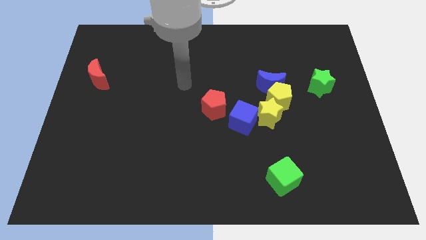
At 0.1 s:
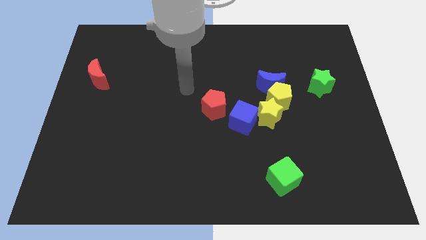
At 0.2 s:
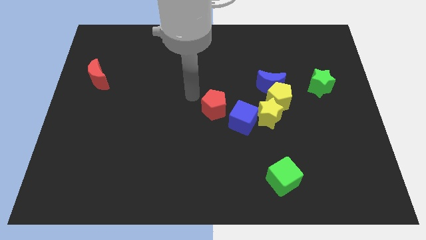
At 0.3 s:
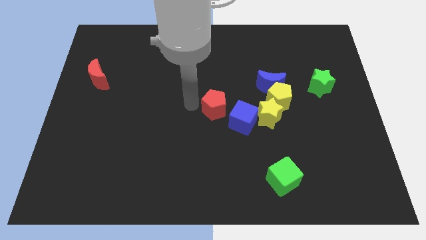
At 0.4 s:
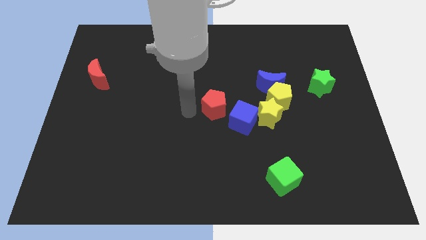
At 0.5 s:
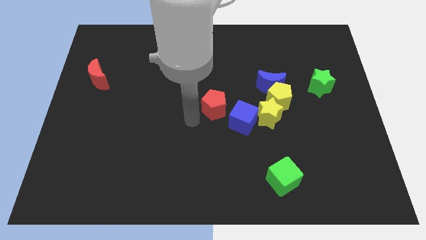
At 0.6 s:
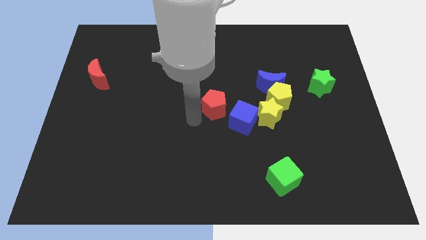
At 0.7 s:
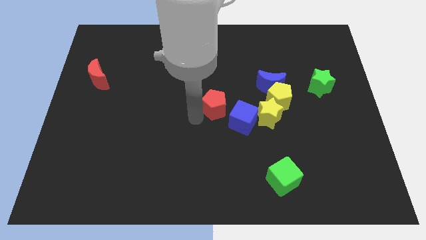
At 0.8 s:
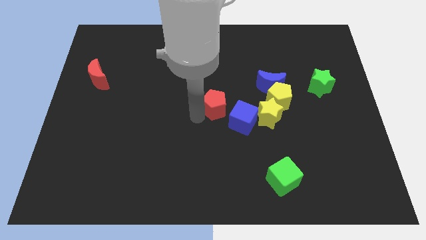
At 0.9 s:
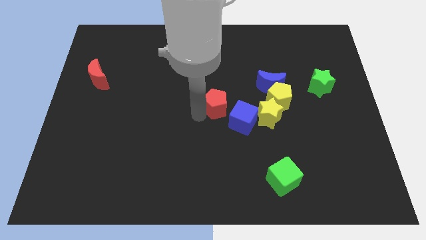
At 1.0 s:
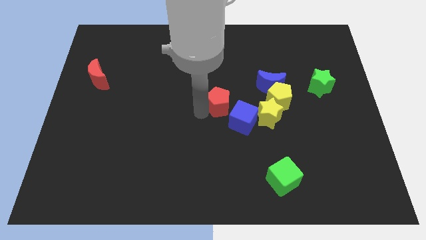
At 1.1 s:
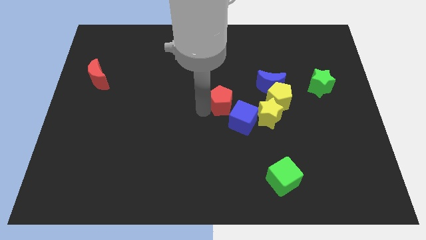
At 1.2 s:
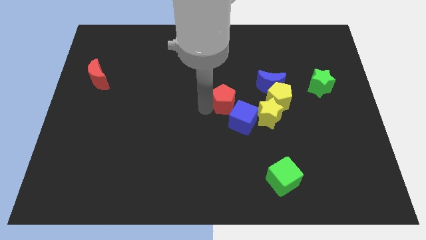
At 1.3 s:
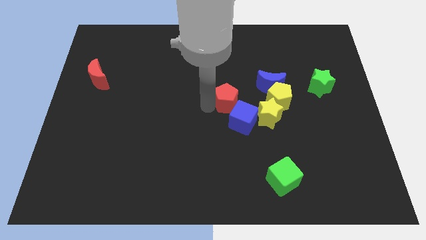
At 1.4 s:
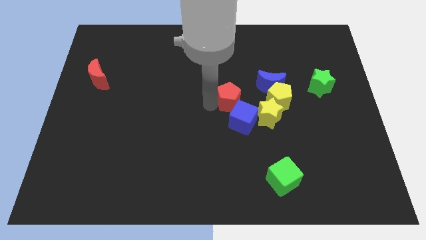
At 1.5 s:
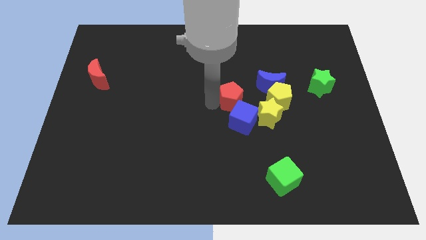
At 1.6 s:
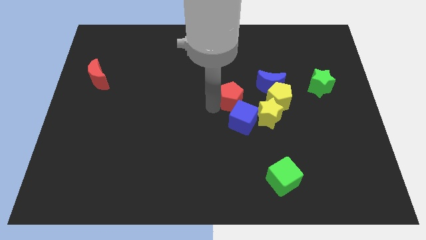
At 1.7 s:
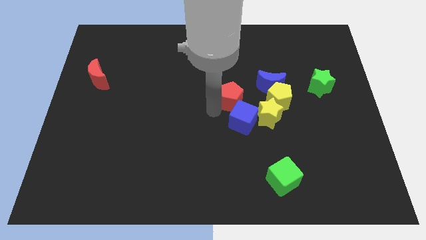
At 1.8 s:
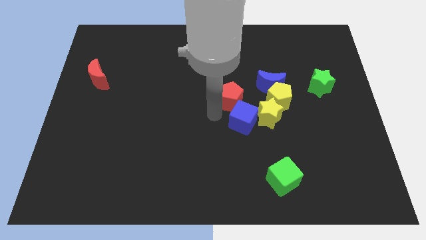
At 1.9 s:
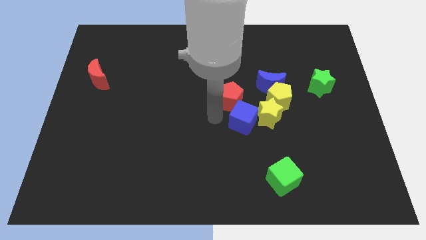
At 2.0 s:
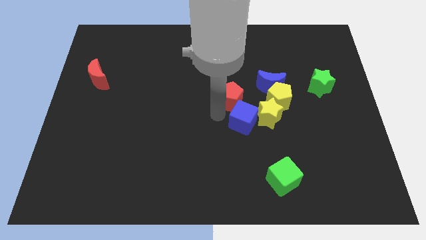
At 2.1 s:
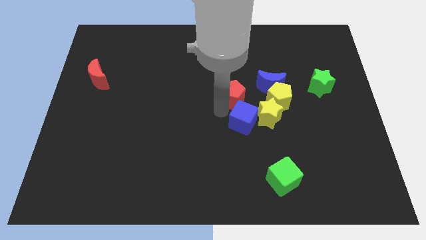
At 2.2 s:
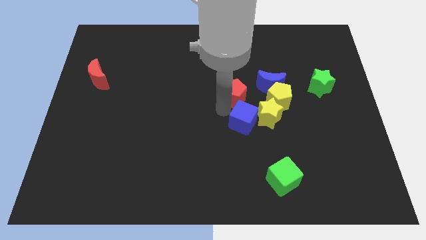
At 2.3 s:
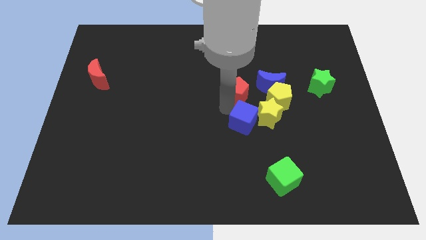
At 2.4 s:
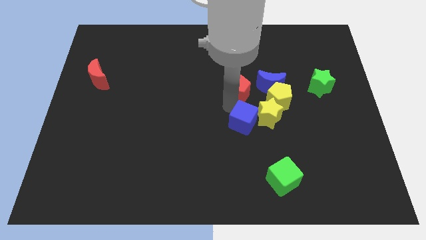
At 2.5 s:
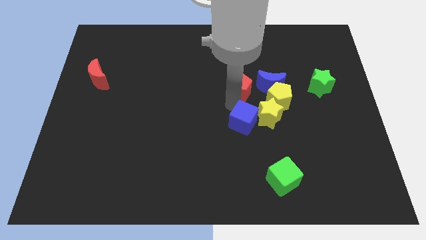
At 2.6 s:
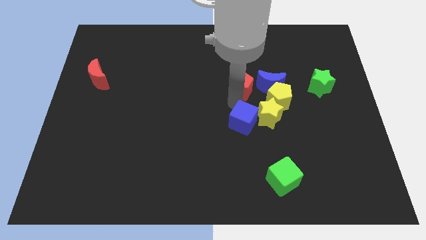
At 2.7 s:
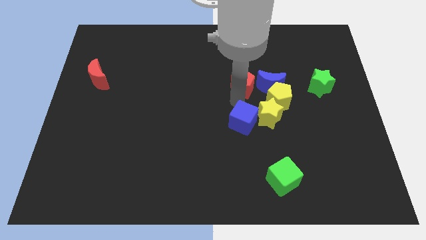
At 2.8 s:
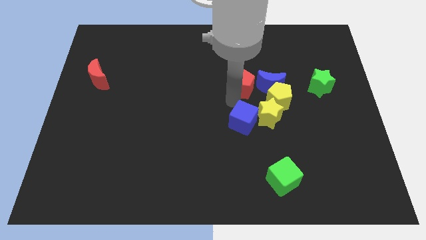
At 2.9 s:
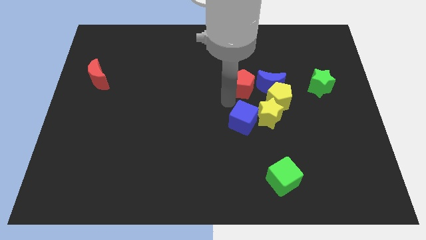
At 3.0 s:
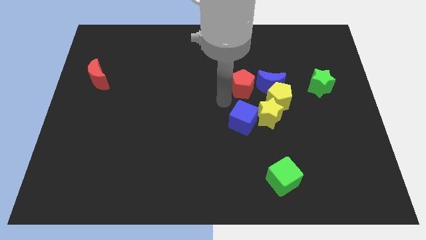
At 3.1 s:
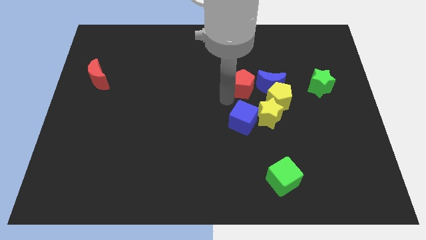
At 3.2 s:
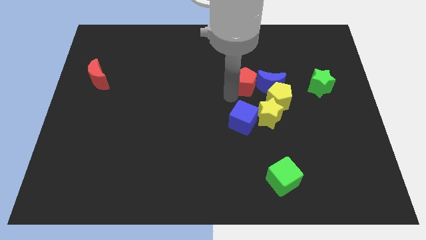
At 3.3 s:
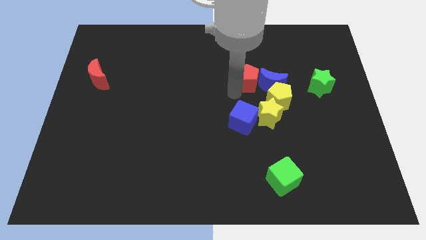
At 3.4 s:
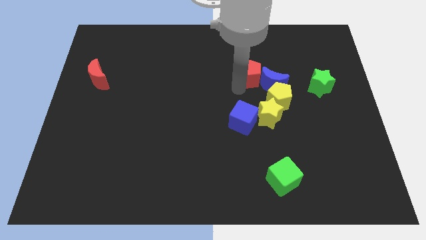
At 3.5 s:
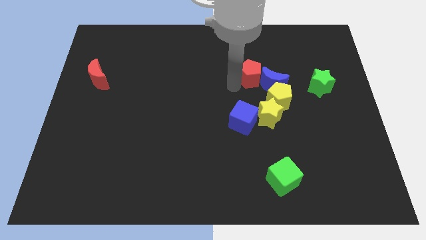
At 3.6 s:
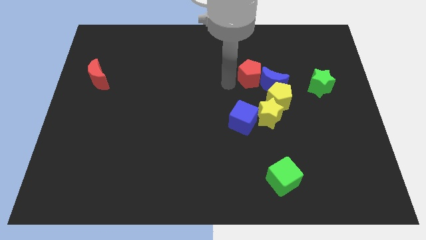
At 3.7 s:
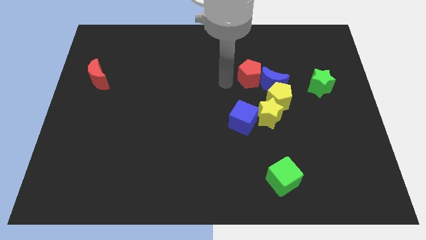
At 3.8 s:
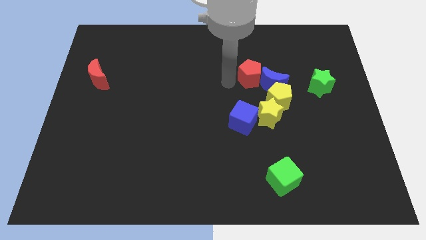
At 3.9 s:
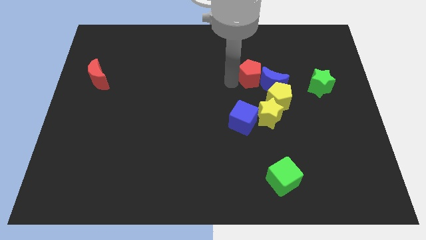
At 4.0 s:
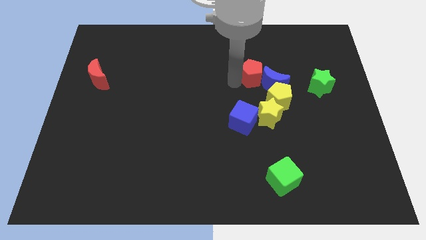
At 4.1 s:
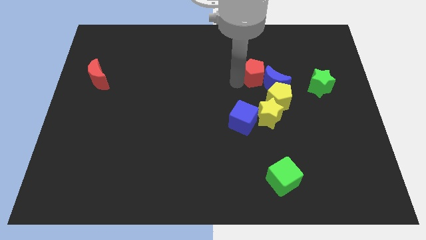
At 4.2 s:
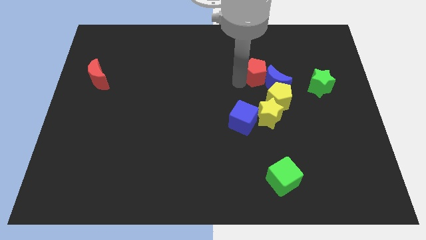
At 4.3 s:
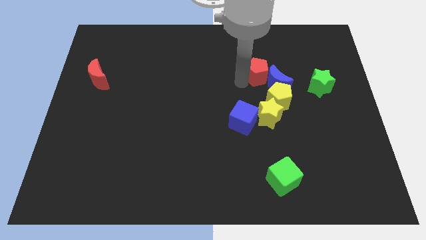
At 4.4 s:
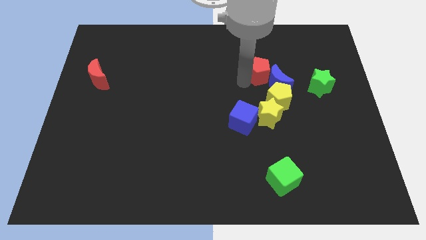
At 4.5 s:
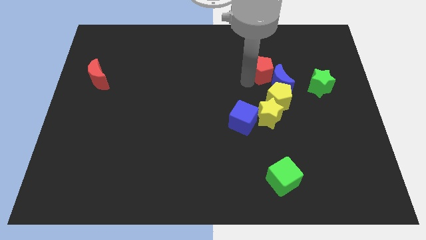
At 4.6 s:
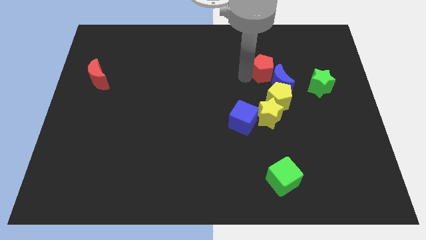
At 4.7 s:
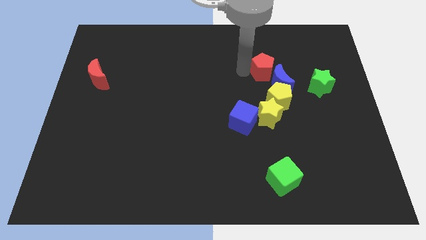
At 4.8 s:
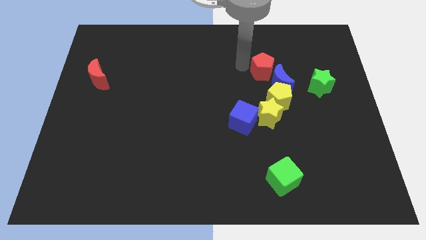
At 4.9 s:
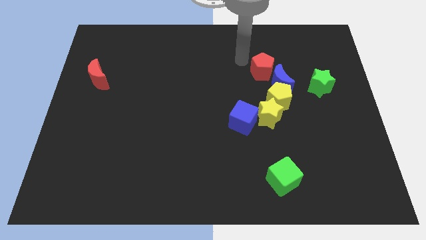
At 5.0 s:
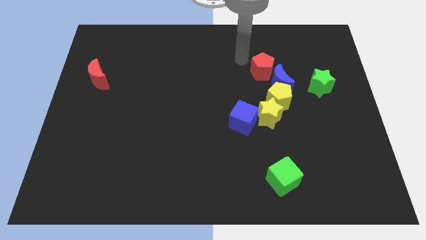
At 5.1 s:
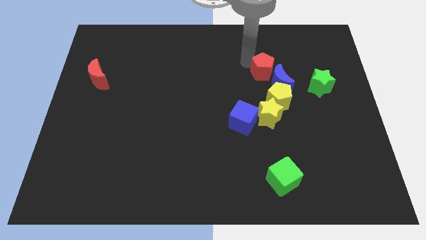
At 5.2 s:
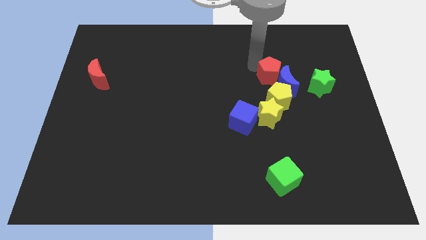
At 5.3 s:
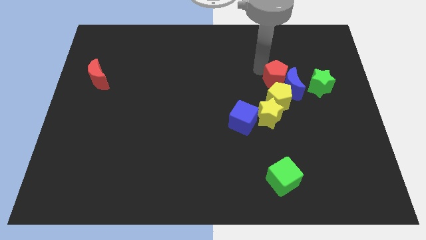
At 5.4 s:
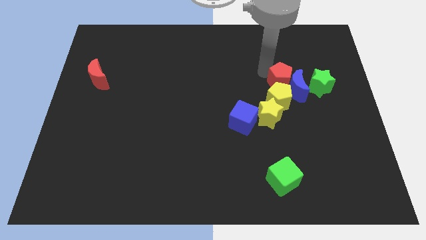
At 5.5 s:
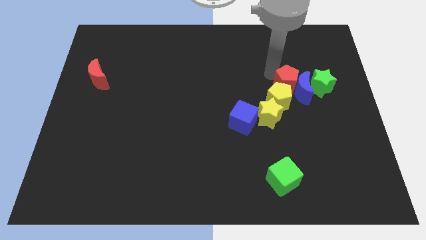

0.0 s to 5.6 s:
slide the red pentagon diagonally up and to the right of the yellow star

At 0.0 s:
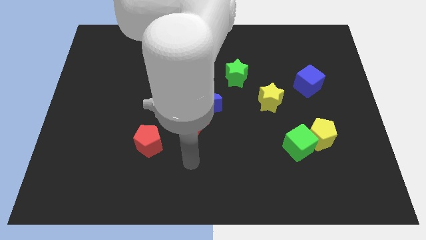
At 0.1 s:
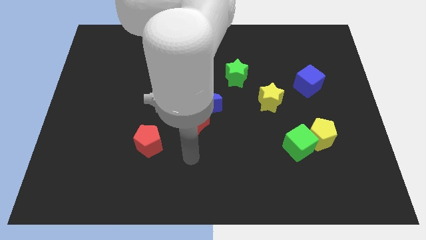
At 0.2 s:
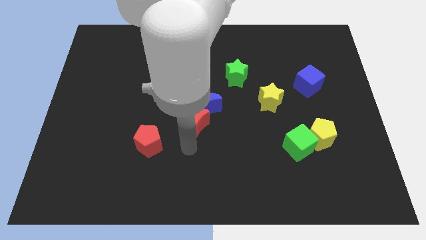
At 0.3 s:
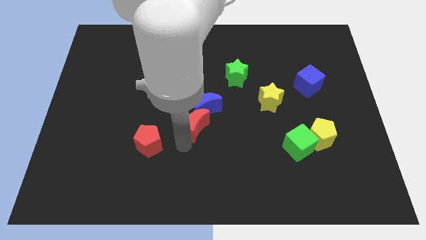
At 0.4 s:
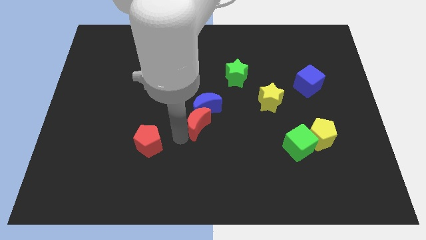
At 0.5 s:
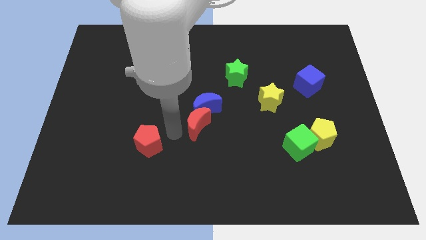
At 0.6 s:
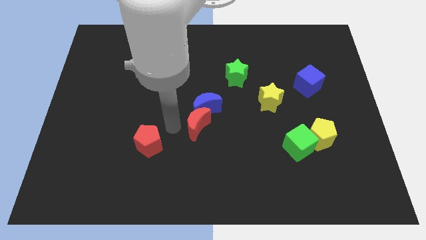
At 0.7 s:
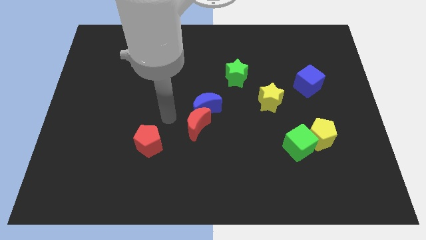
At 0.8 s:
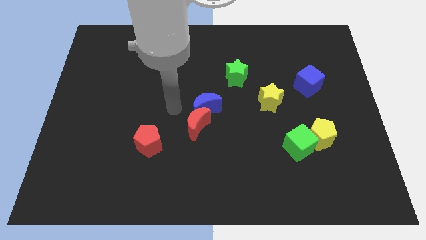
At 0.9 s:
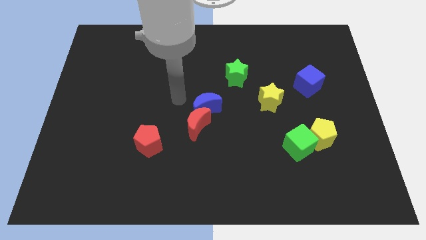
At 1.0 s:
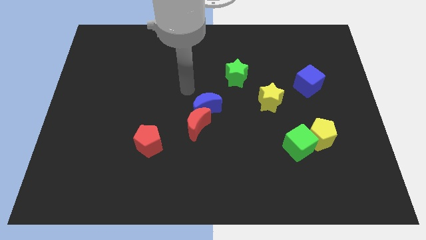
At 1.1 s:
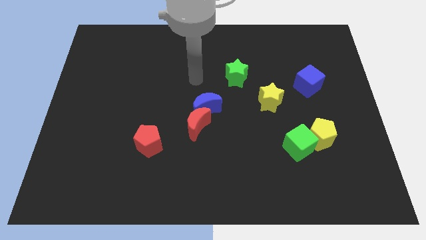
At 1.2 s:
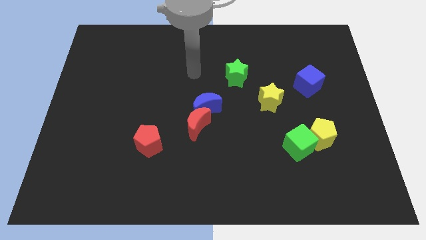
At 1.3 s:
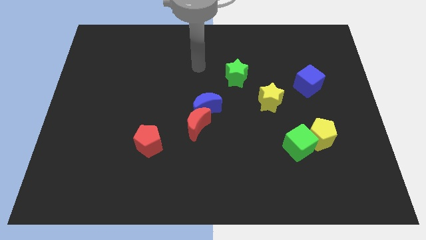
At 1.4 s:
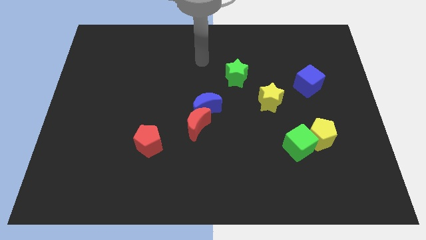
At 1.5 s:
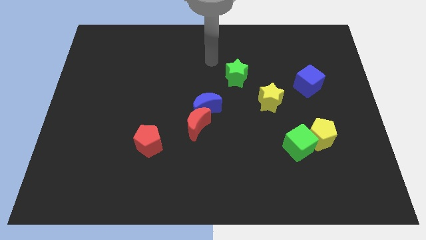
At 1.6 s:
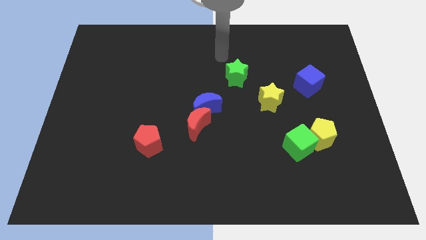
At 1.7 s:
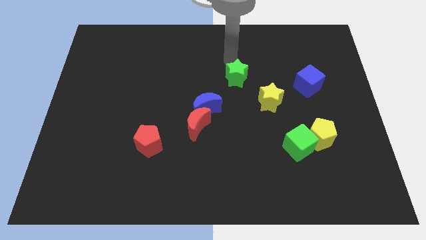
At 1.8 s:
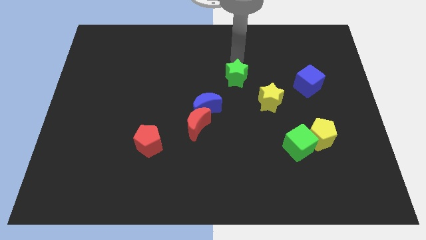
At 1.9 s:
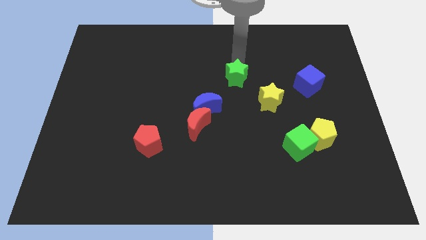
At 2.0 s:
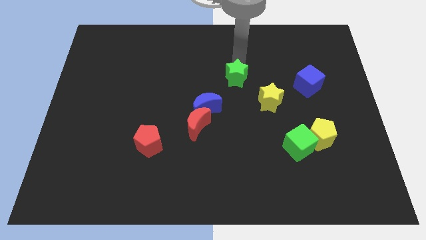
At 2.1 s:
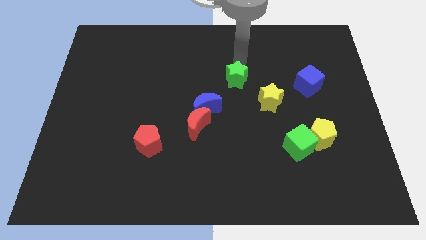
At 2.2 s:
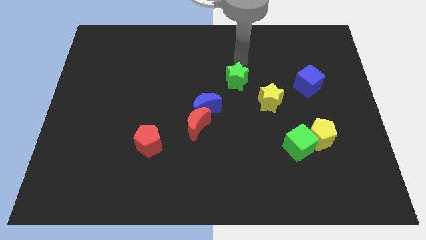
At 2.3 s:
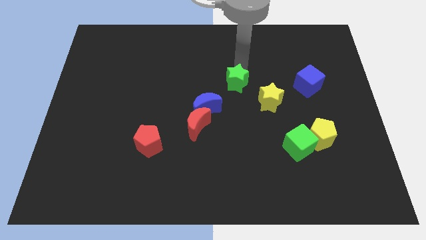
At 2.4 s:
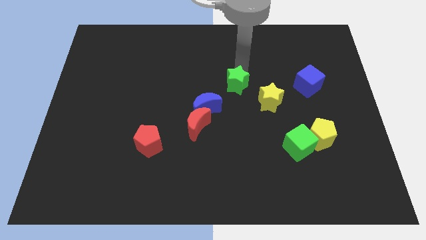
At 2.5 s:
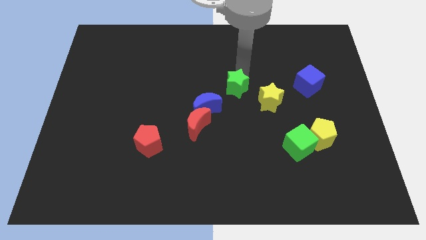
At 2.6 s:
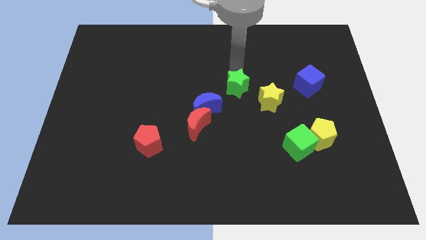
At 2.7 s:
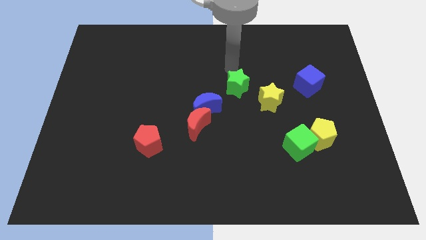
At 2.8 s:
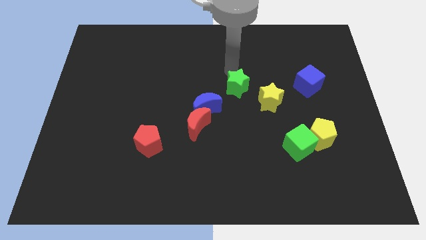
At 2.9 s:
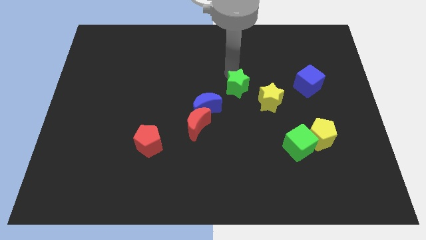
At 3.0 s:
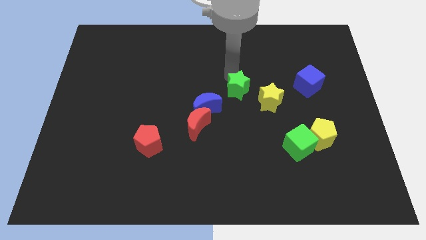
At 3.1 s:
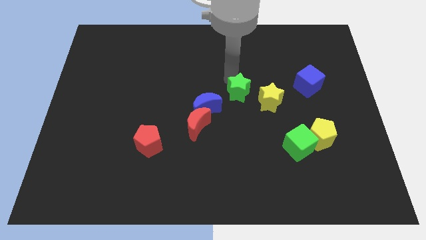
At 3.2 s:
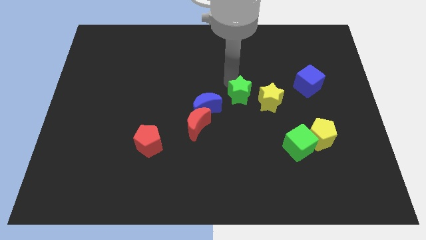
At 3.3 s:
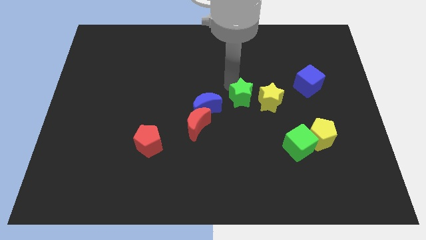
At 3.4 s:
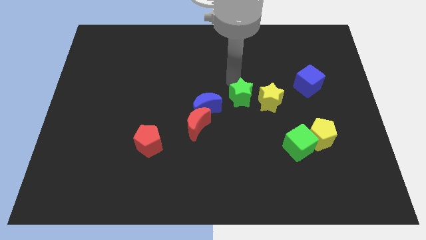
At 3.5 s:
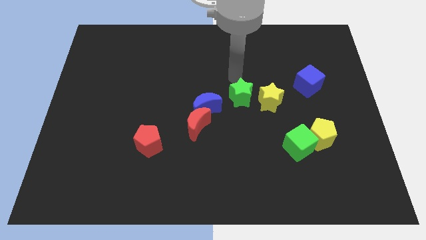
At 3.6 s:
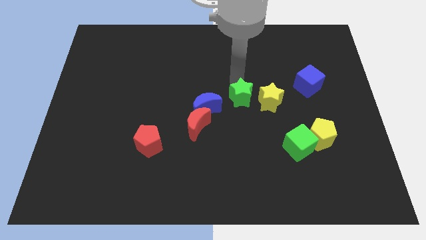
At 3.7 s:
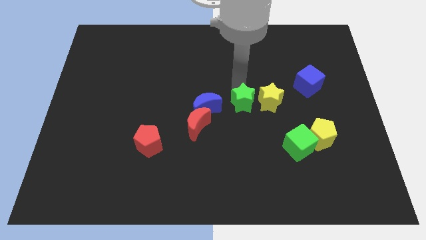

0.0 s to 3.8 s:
move the green star to the bottom left side of the yellow star
